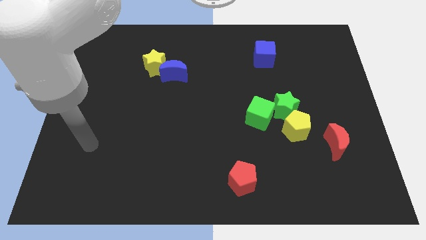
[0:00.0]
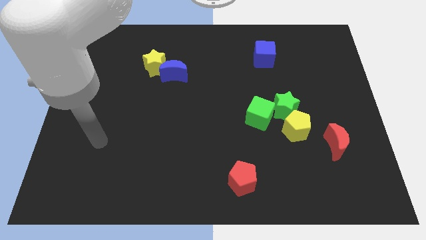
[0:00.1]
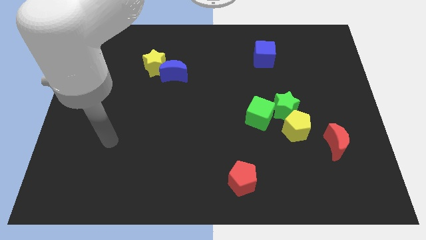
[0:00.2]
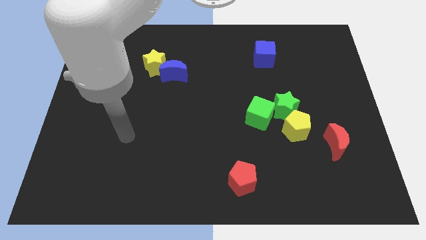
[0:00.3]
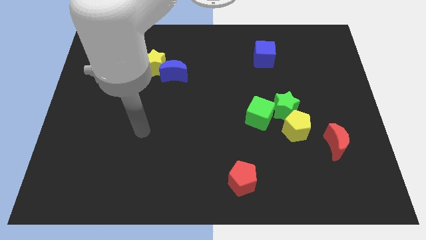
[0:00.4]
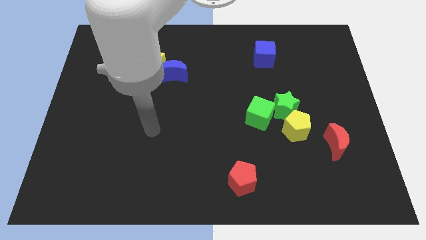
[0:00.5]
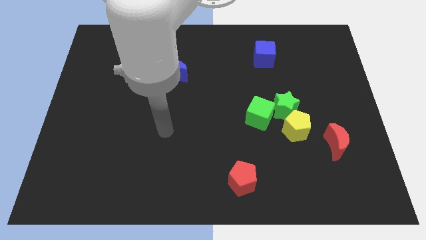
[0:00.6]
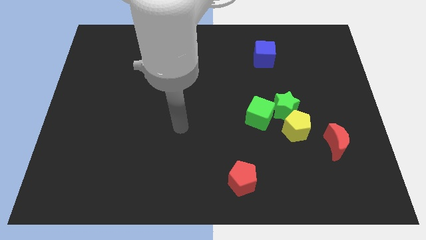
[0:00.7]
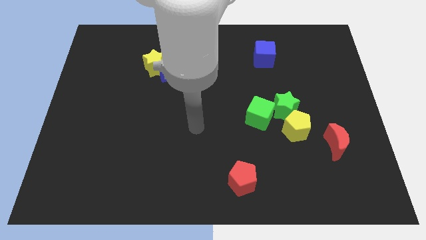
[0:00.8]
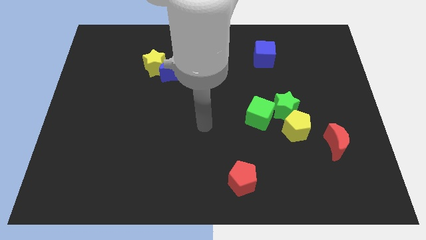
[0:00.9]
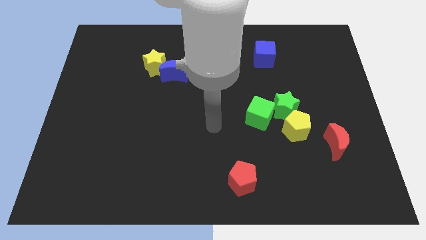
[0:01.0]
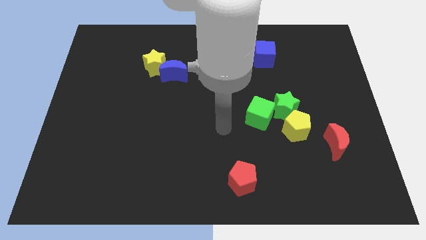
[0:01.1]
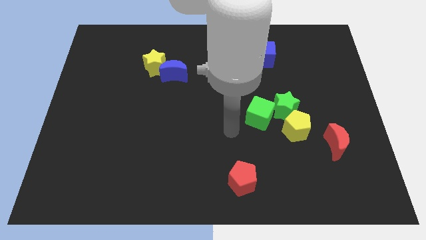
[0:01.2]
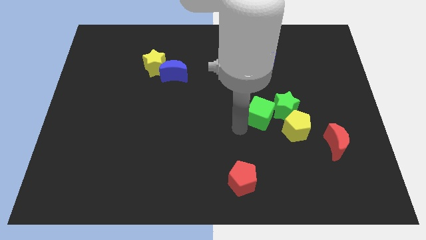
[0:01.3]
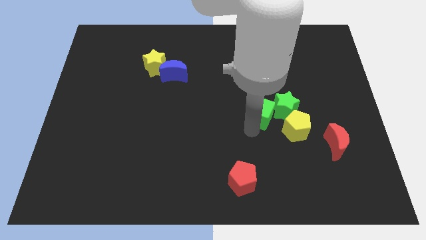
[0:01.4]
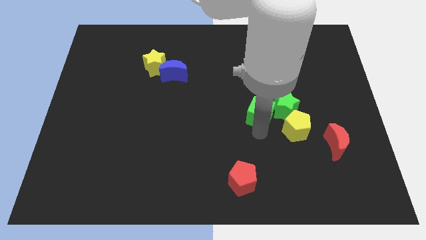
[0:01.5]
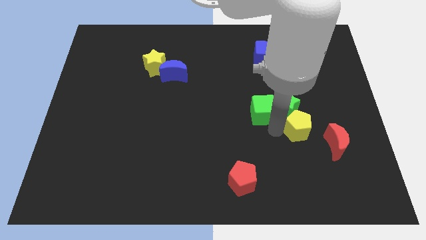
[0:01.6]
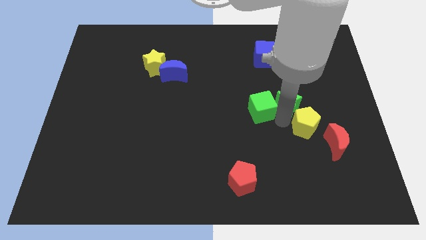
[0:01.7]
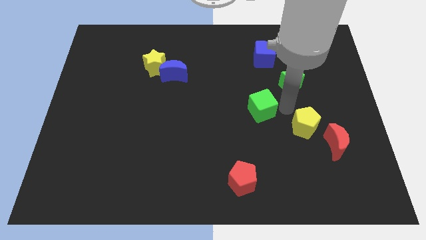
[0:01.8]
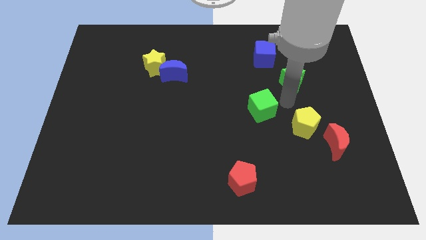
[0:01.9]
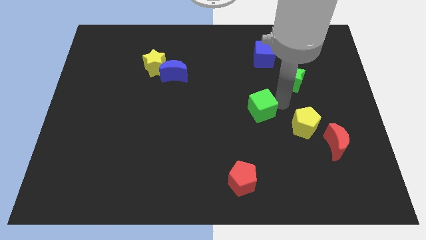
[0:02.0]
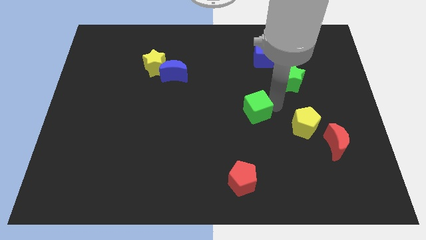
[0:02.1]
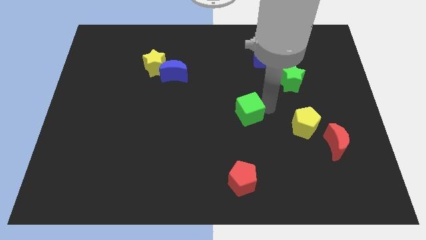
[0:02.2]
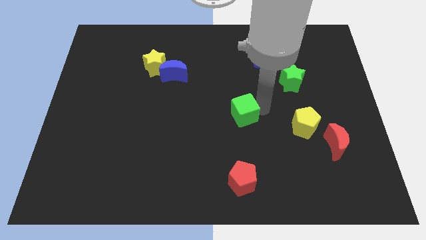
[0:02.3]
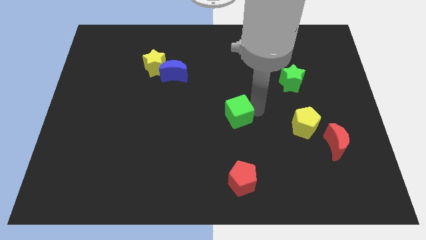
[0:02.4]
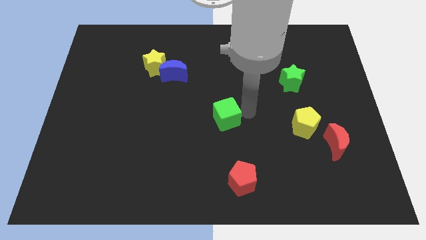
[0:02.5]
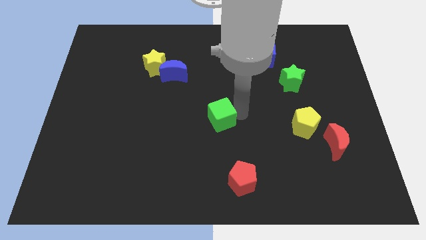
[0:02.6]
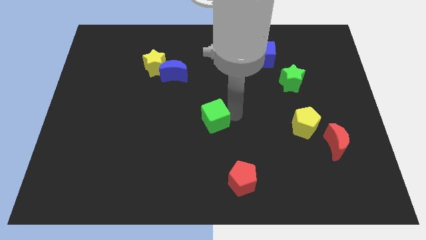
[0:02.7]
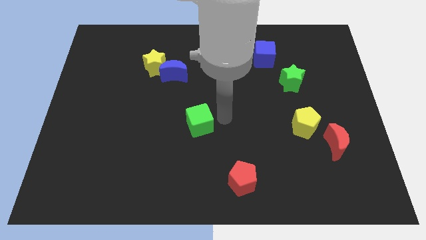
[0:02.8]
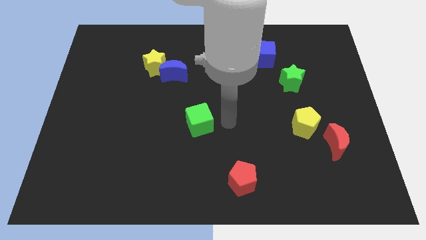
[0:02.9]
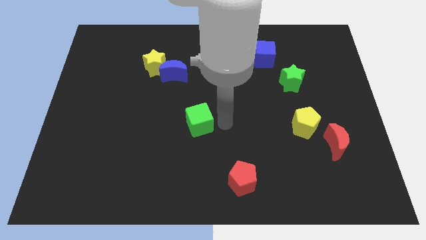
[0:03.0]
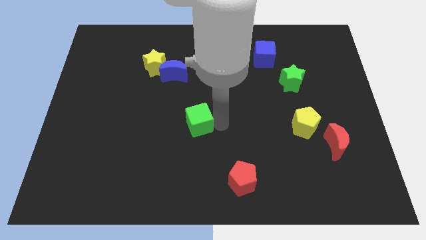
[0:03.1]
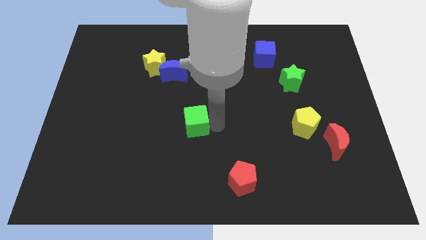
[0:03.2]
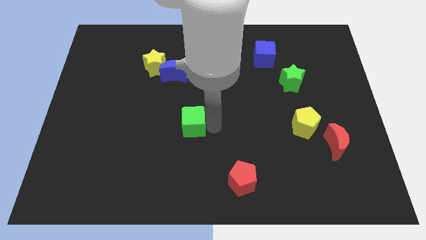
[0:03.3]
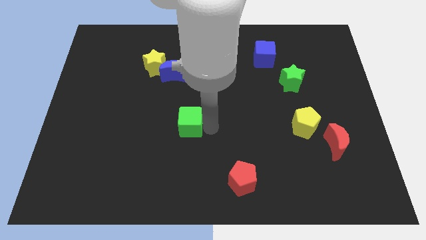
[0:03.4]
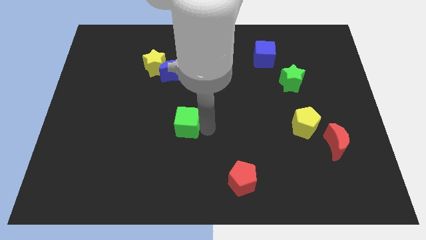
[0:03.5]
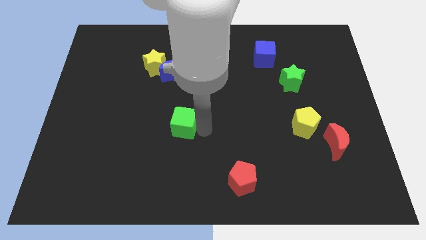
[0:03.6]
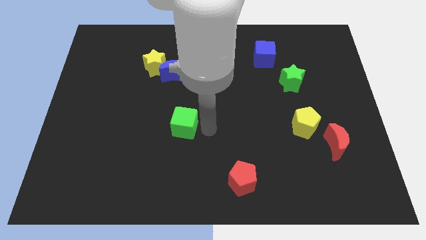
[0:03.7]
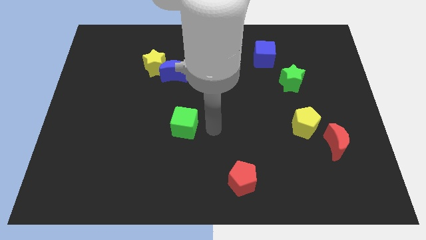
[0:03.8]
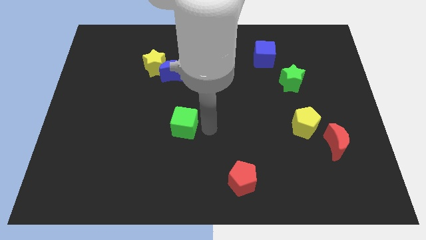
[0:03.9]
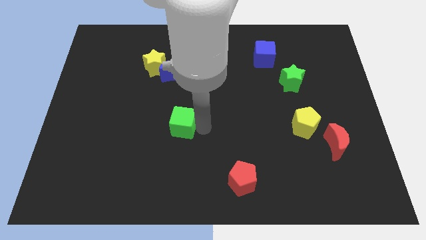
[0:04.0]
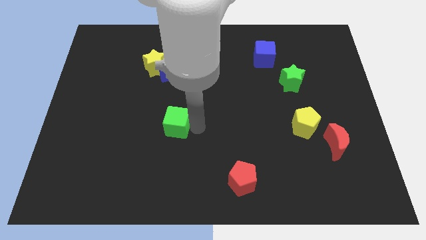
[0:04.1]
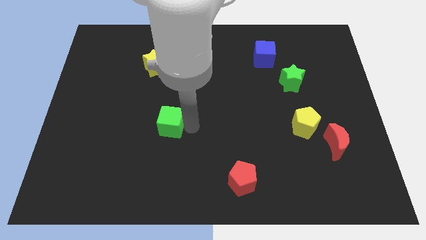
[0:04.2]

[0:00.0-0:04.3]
push the green cube left

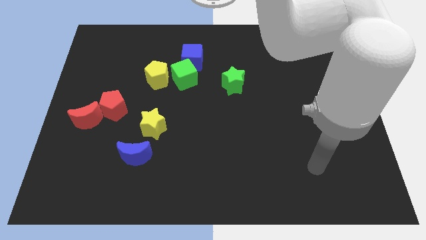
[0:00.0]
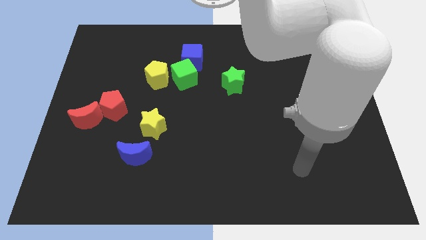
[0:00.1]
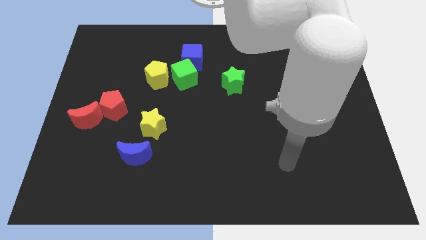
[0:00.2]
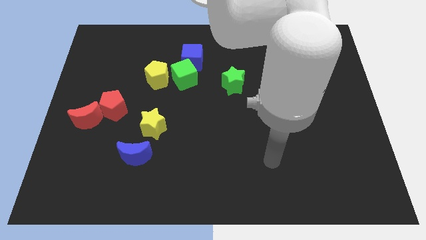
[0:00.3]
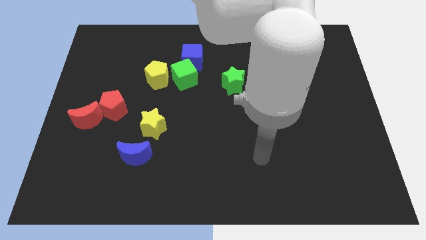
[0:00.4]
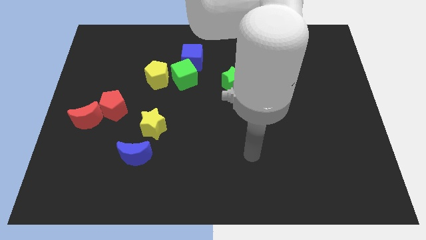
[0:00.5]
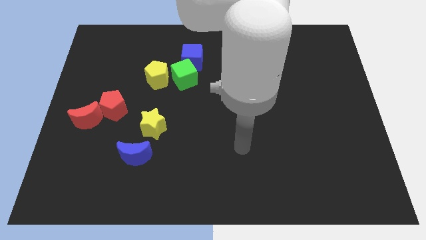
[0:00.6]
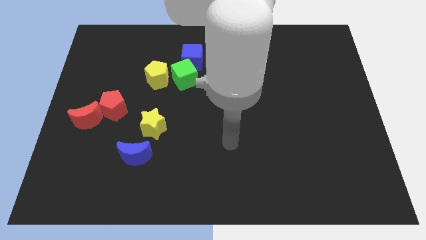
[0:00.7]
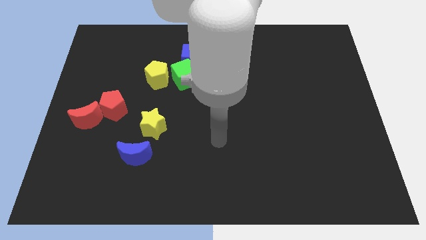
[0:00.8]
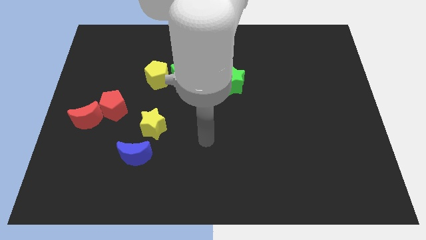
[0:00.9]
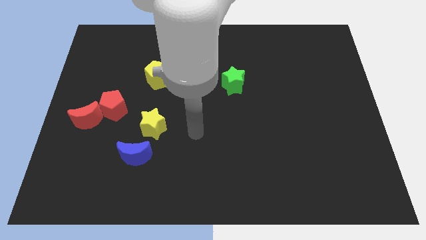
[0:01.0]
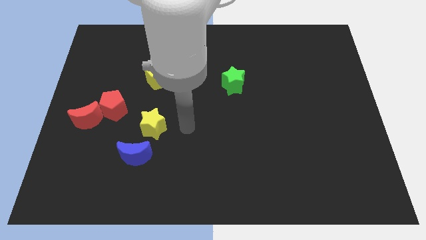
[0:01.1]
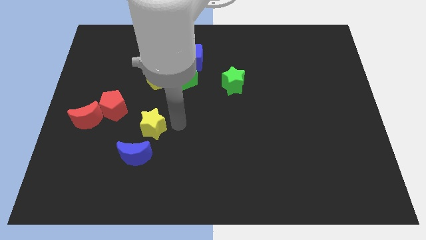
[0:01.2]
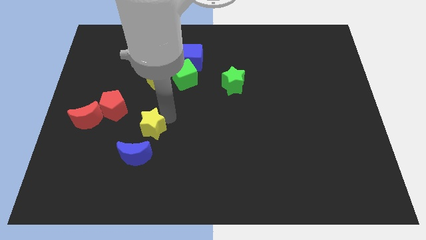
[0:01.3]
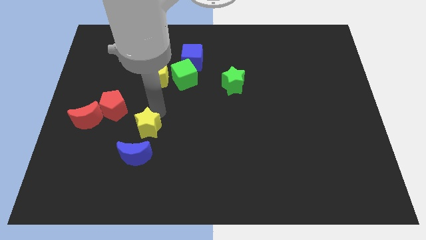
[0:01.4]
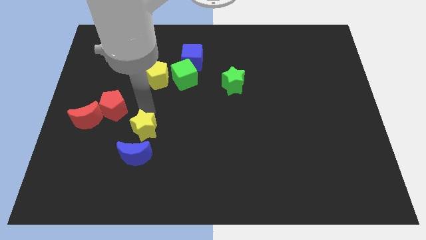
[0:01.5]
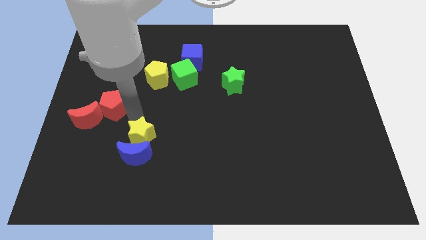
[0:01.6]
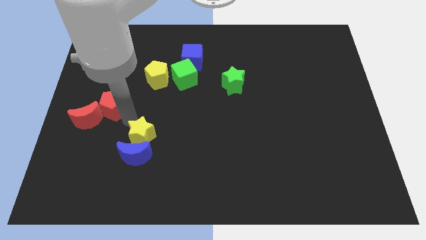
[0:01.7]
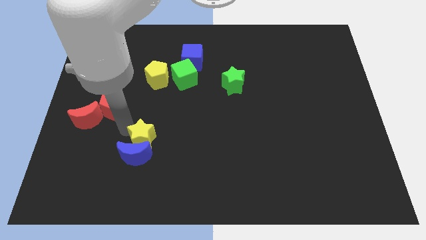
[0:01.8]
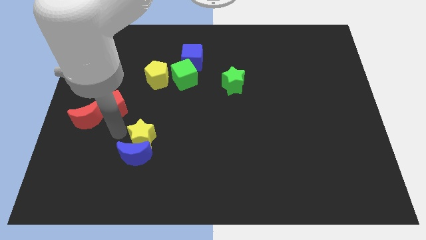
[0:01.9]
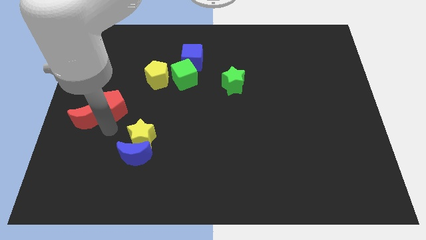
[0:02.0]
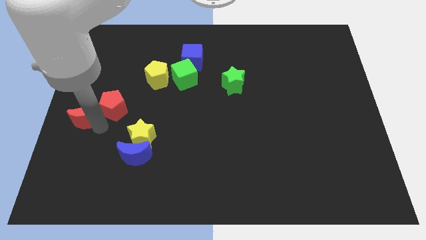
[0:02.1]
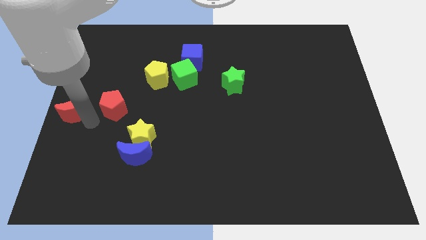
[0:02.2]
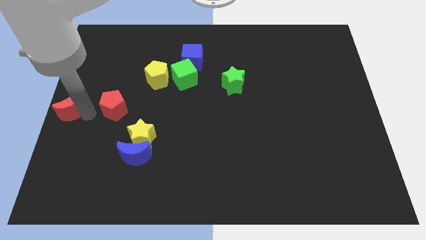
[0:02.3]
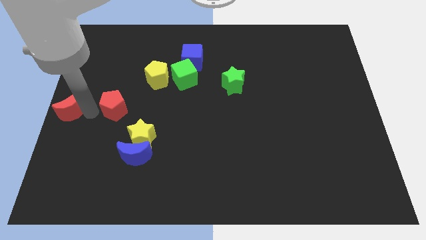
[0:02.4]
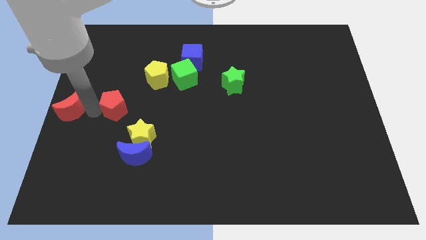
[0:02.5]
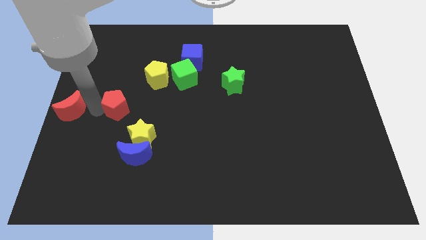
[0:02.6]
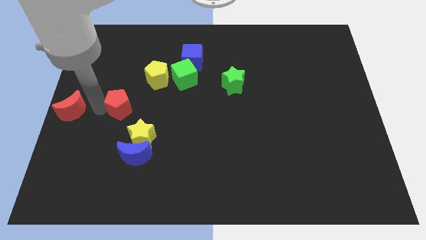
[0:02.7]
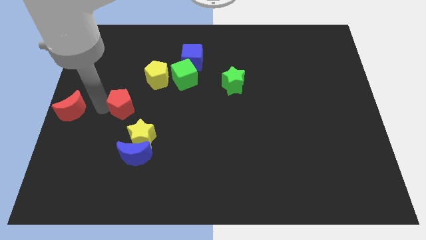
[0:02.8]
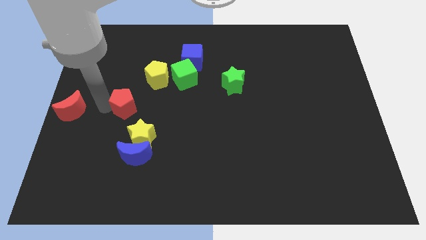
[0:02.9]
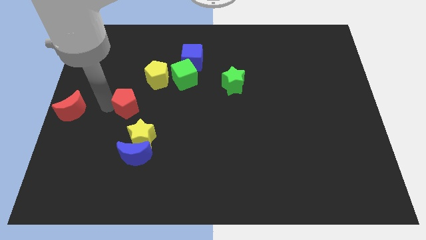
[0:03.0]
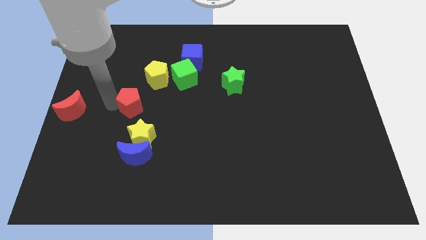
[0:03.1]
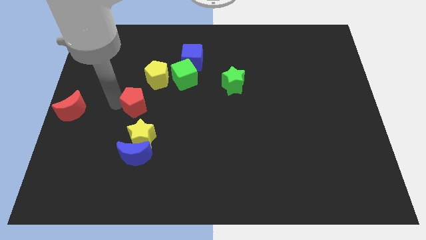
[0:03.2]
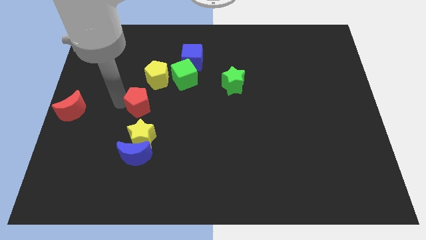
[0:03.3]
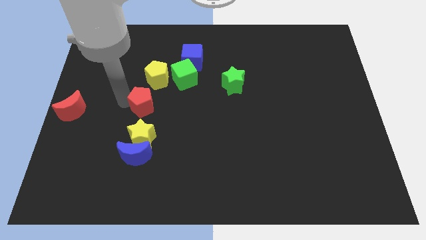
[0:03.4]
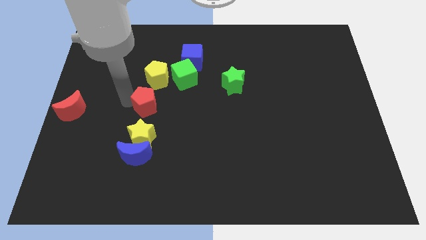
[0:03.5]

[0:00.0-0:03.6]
slightly slide the red pentagon right

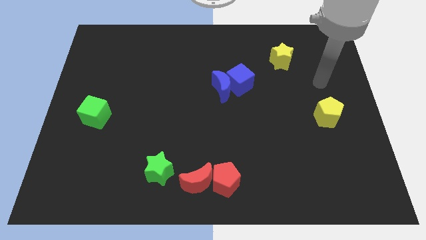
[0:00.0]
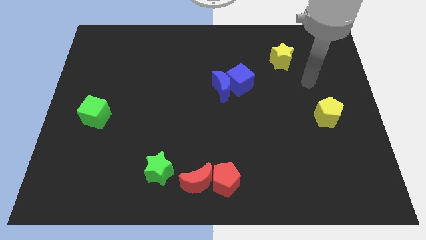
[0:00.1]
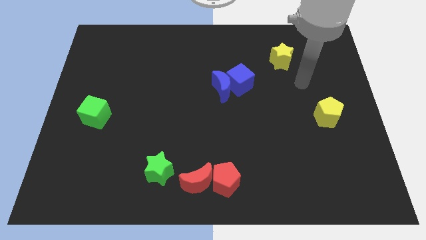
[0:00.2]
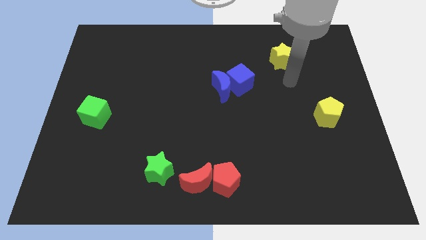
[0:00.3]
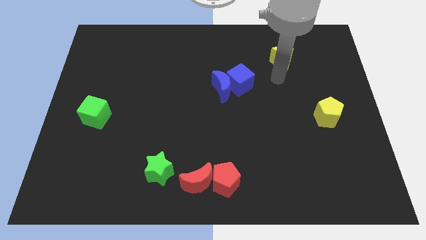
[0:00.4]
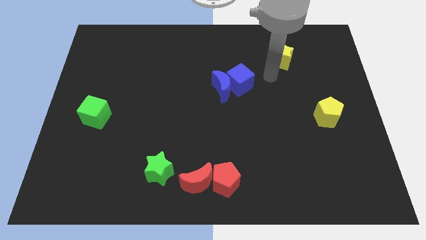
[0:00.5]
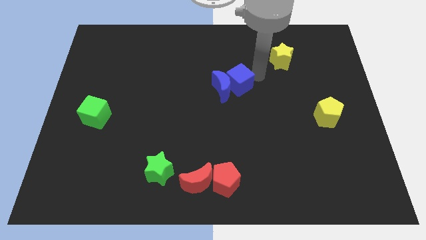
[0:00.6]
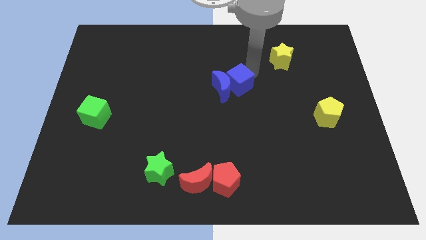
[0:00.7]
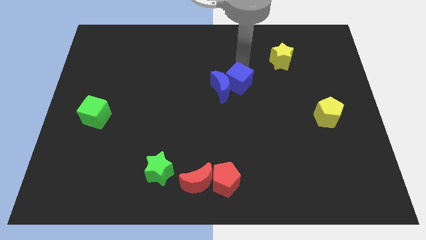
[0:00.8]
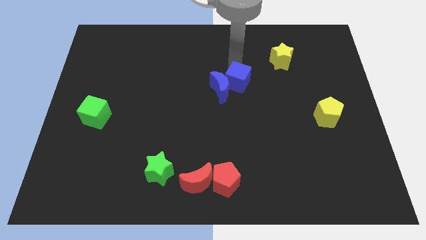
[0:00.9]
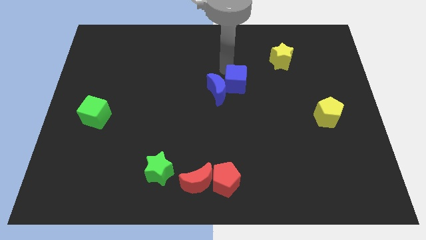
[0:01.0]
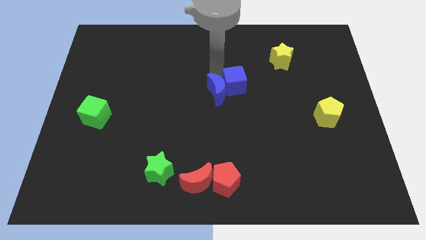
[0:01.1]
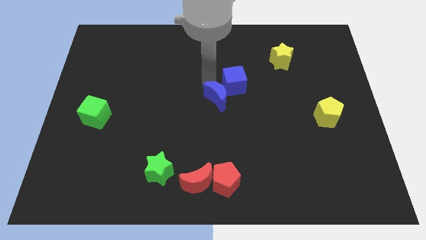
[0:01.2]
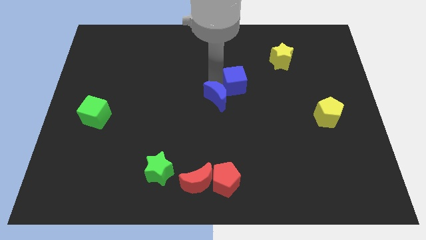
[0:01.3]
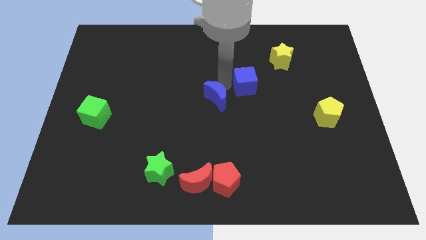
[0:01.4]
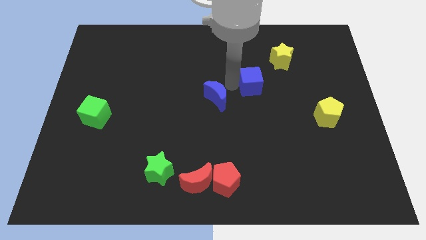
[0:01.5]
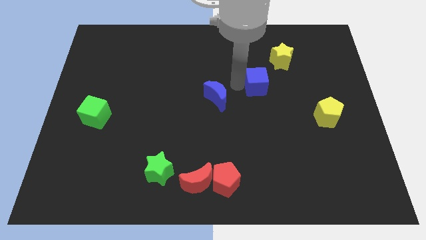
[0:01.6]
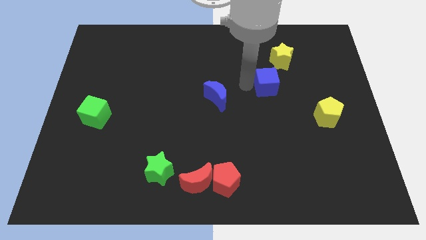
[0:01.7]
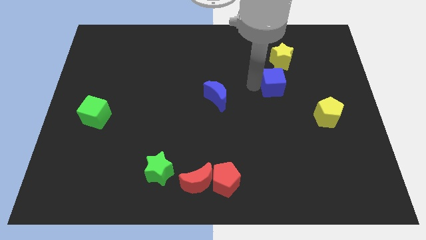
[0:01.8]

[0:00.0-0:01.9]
push the blue cube right a bit
